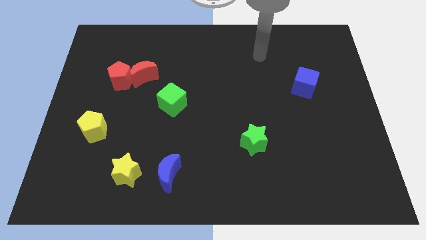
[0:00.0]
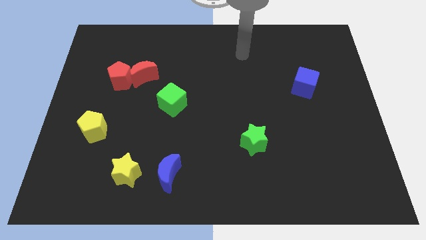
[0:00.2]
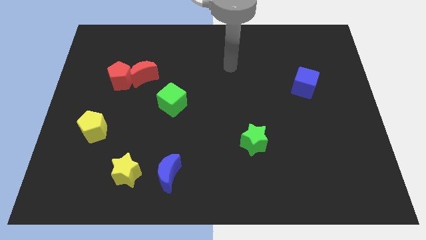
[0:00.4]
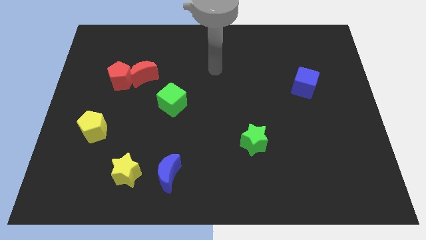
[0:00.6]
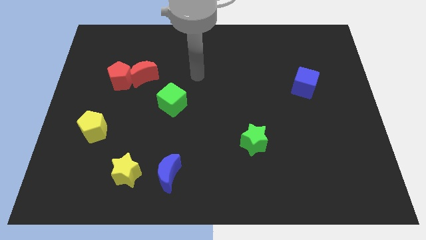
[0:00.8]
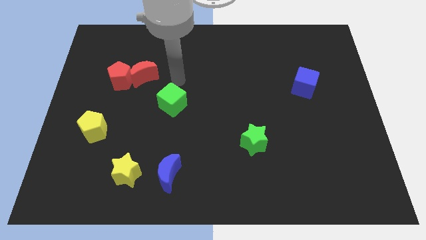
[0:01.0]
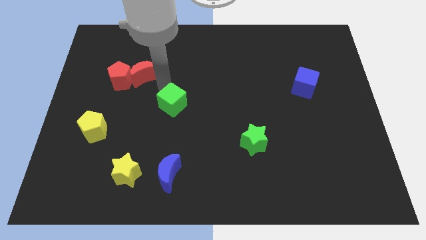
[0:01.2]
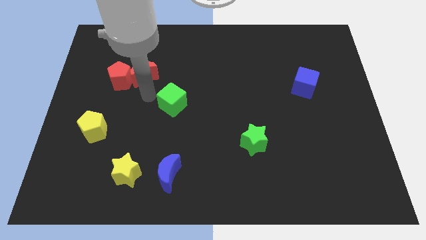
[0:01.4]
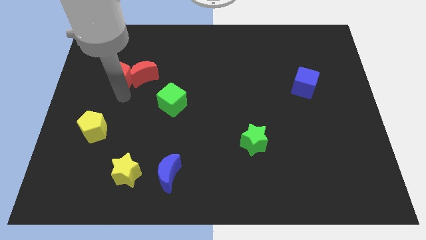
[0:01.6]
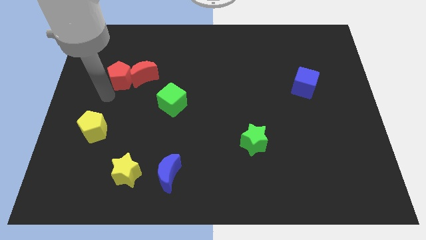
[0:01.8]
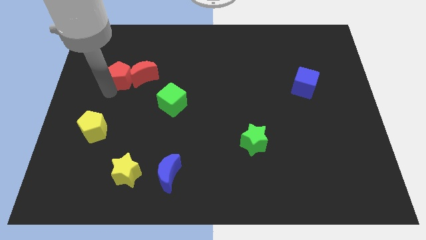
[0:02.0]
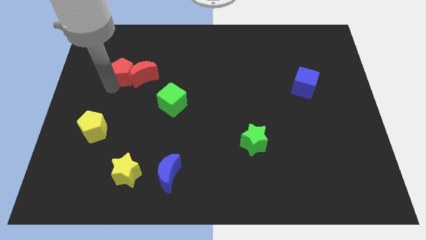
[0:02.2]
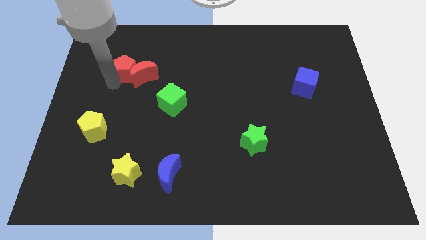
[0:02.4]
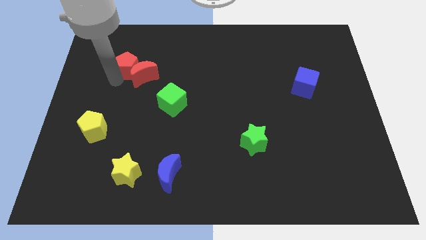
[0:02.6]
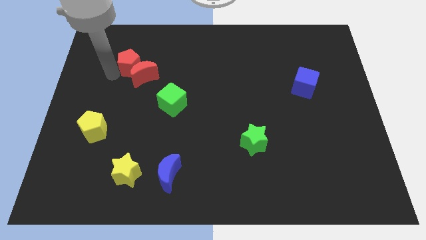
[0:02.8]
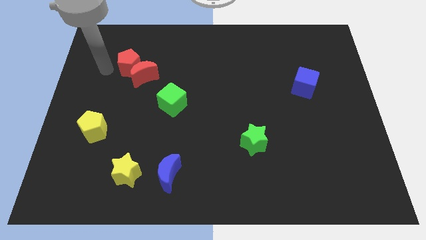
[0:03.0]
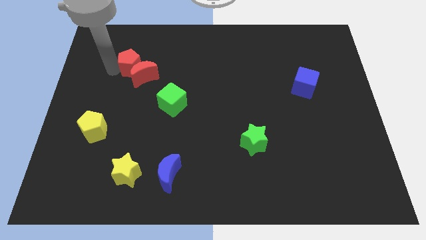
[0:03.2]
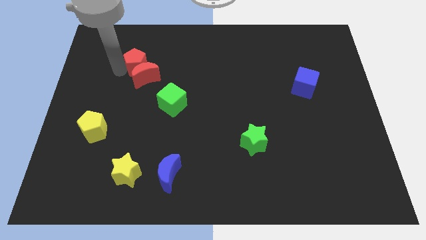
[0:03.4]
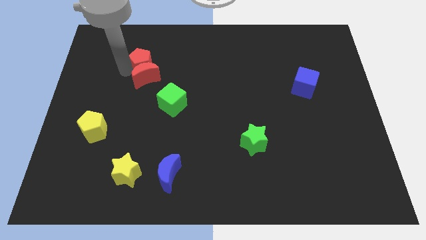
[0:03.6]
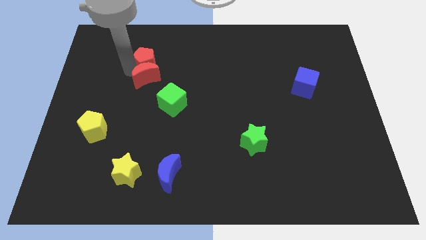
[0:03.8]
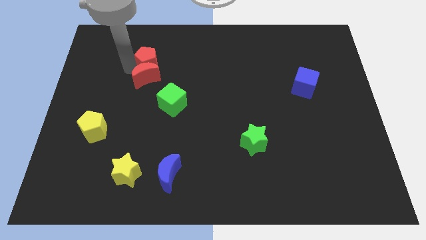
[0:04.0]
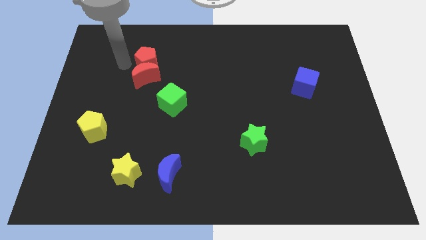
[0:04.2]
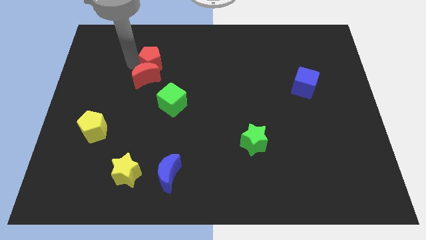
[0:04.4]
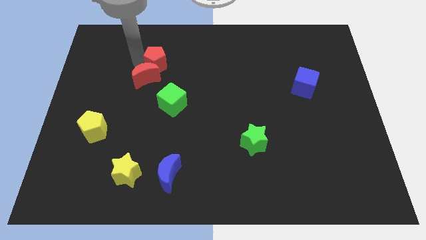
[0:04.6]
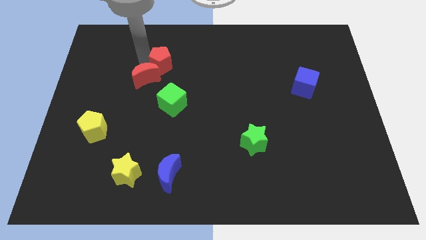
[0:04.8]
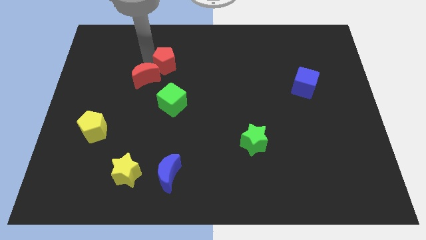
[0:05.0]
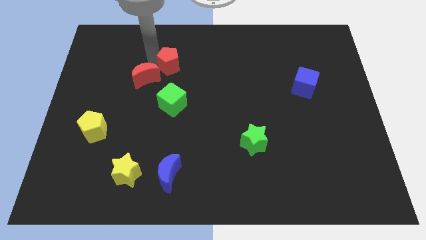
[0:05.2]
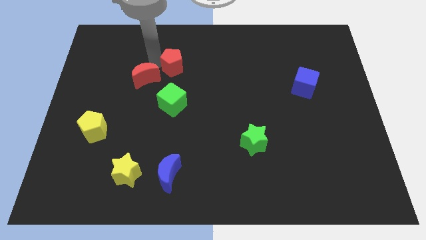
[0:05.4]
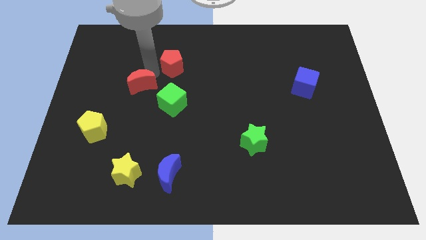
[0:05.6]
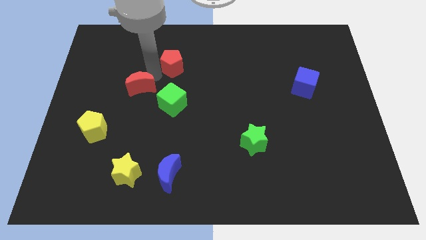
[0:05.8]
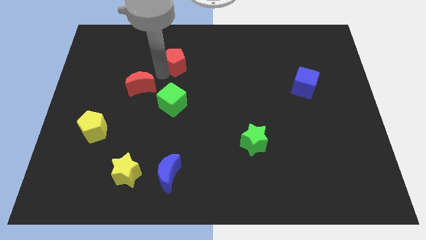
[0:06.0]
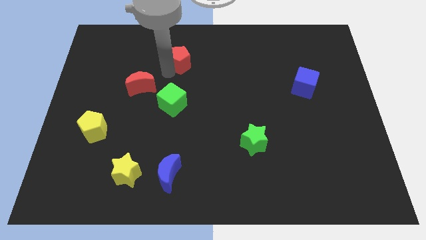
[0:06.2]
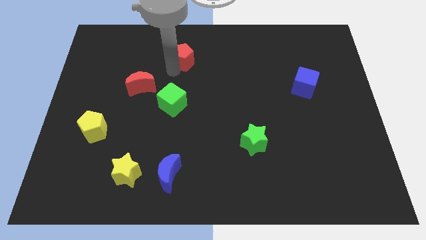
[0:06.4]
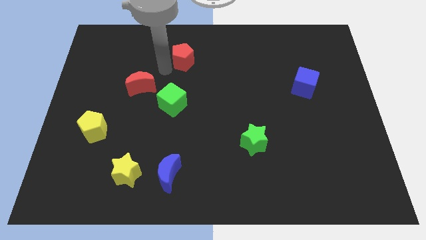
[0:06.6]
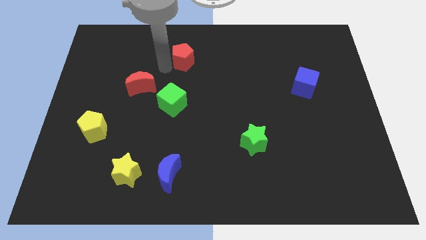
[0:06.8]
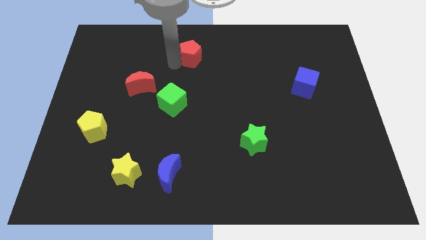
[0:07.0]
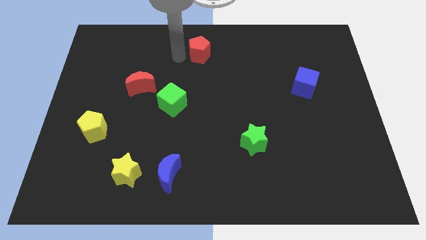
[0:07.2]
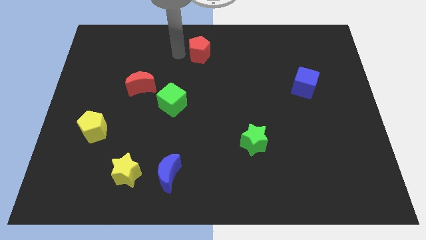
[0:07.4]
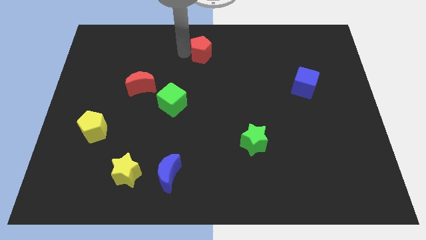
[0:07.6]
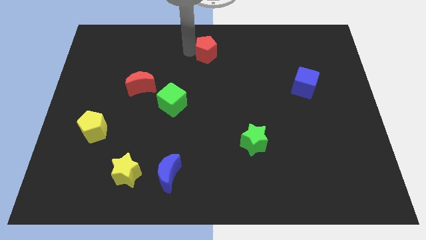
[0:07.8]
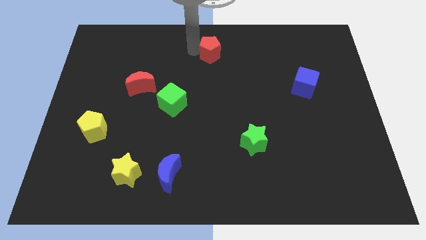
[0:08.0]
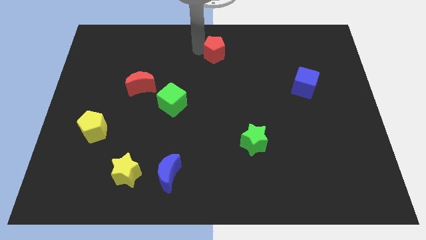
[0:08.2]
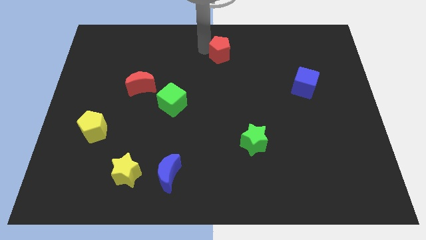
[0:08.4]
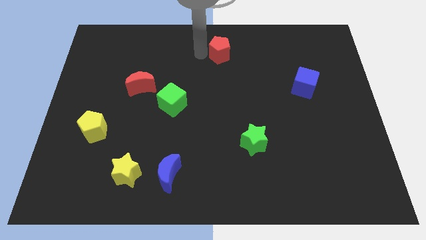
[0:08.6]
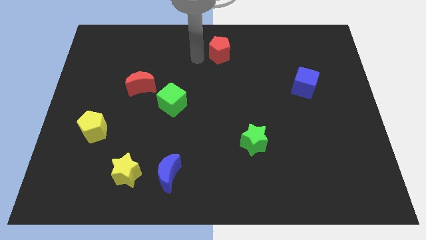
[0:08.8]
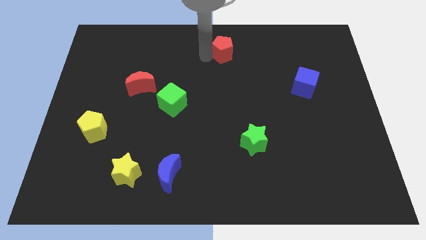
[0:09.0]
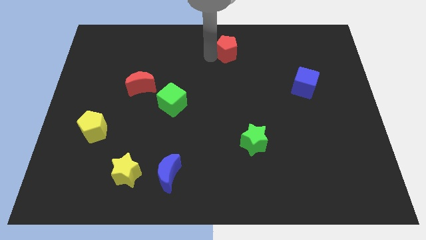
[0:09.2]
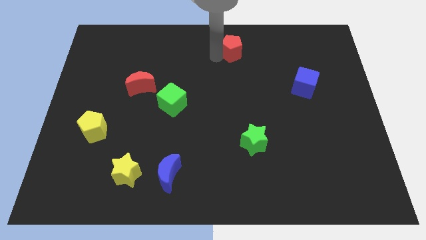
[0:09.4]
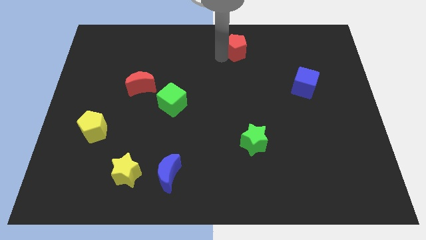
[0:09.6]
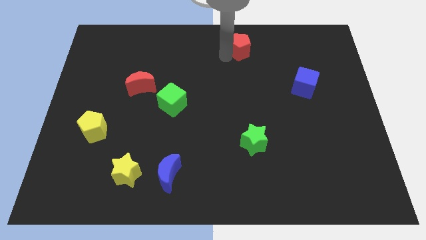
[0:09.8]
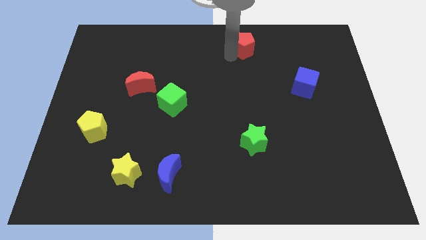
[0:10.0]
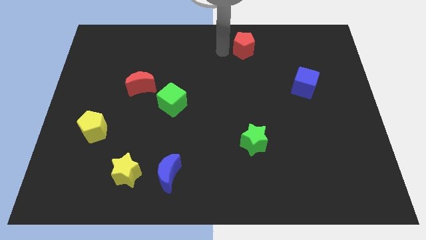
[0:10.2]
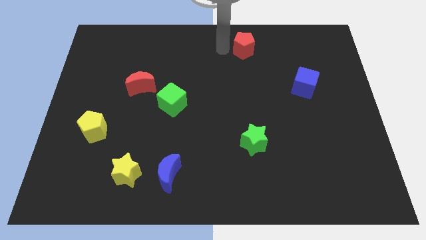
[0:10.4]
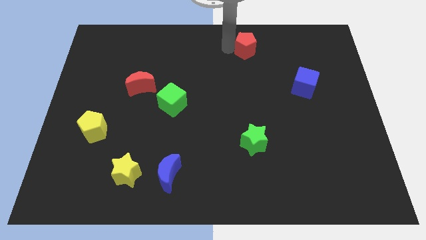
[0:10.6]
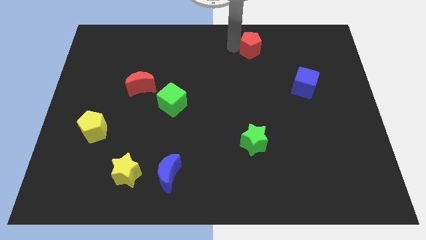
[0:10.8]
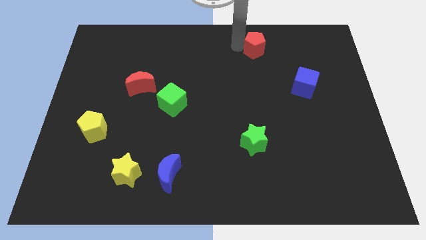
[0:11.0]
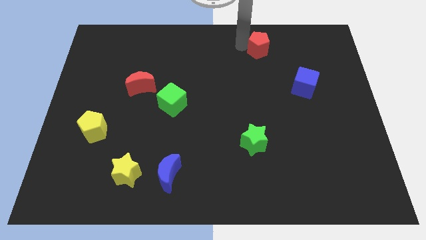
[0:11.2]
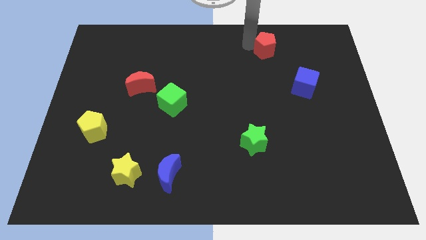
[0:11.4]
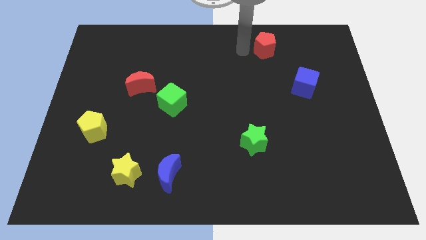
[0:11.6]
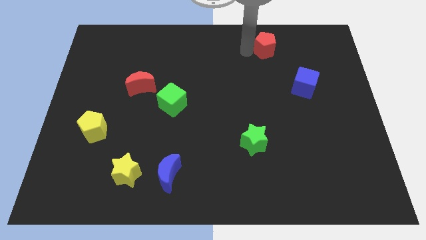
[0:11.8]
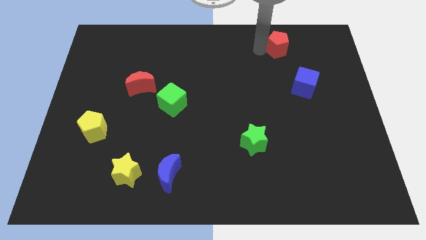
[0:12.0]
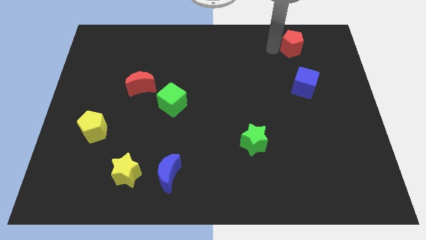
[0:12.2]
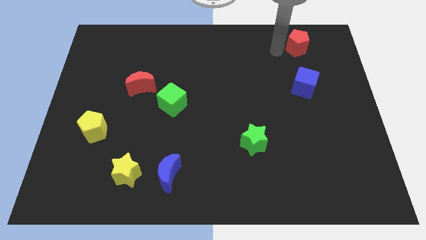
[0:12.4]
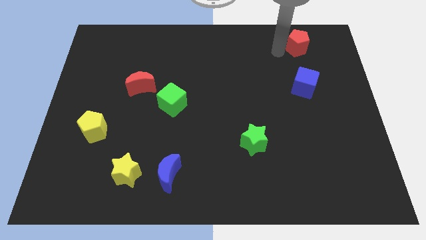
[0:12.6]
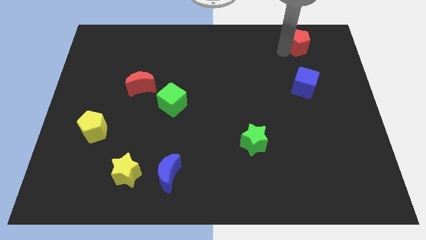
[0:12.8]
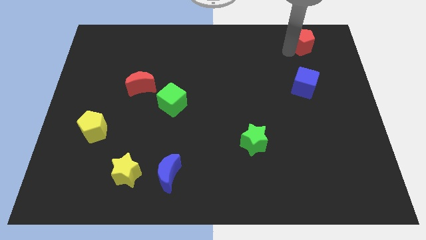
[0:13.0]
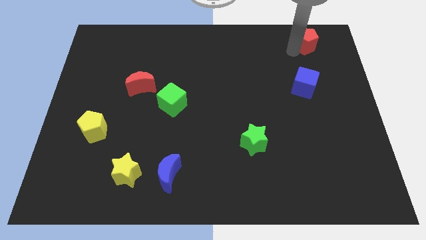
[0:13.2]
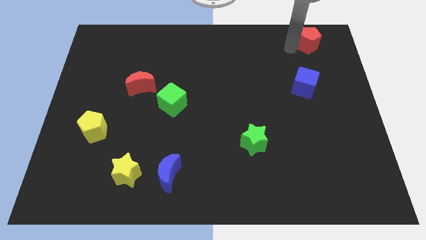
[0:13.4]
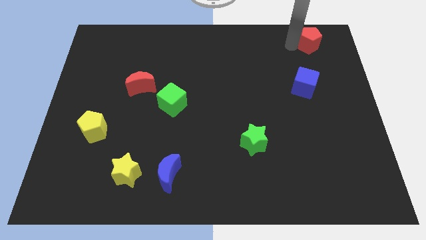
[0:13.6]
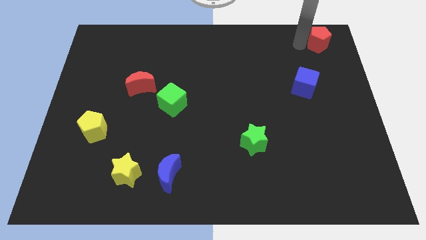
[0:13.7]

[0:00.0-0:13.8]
push the red pentagon to the top right of the board
